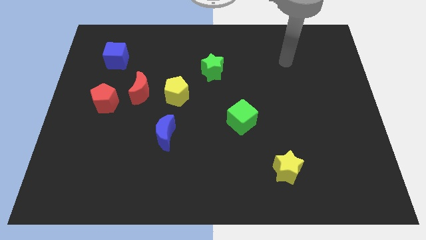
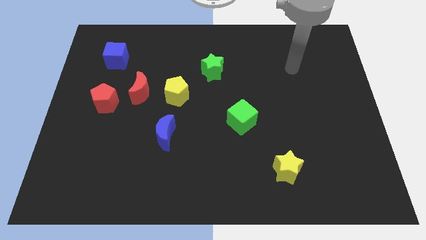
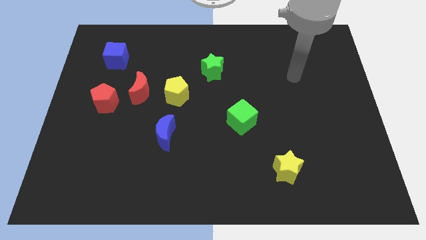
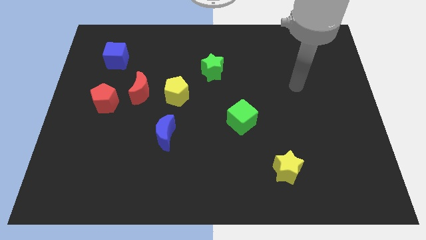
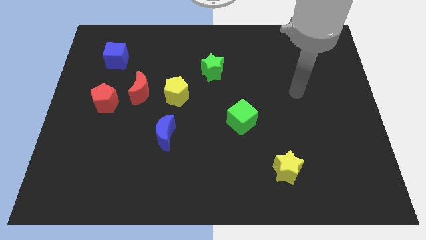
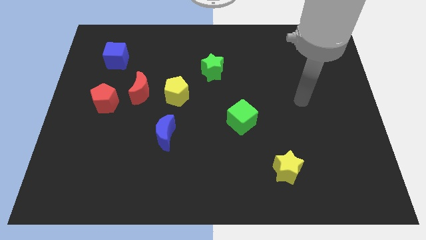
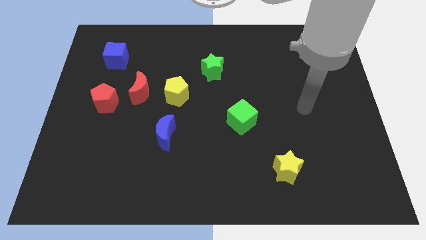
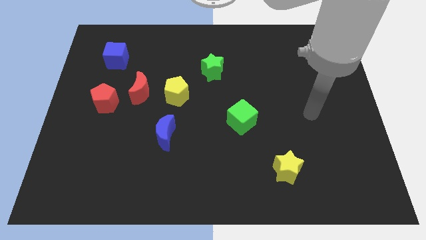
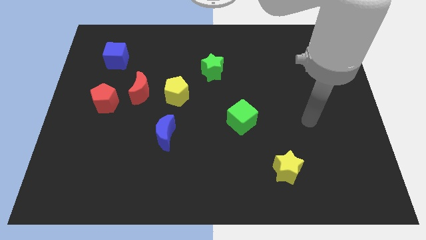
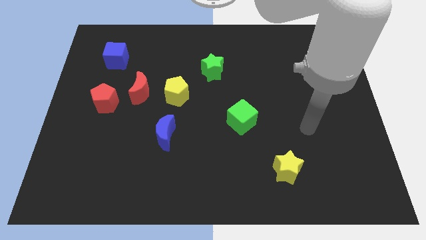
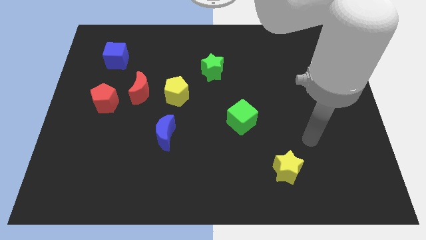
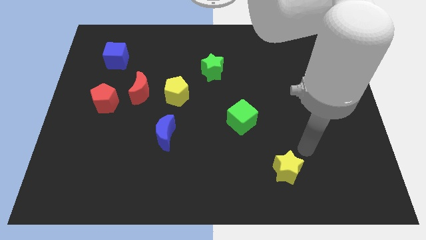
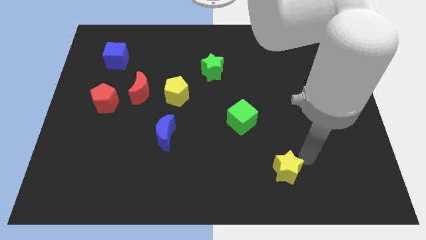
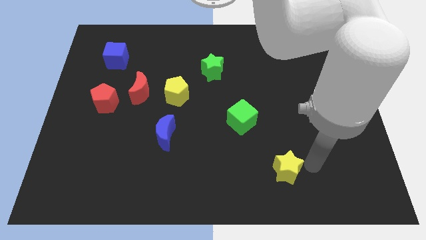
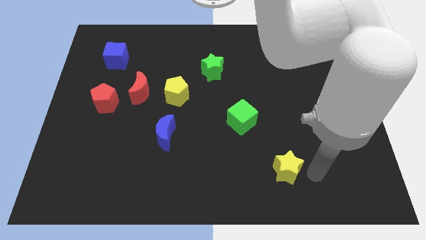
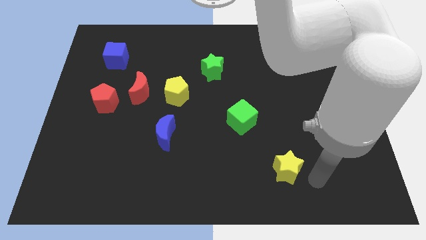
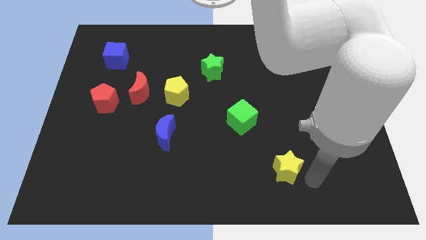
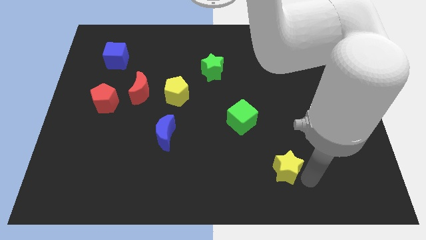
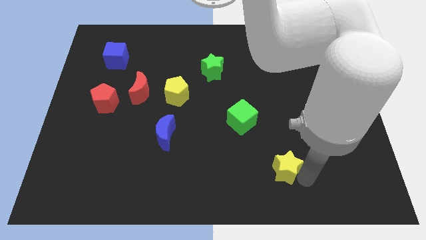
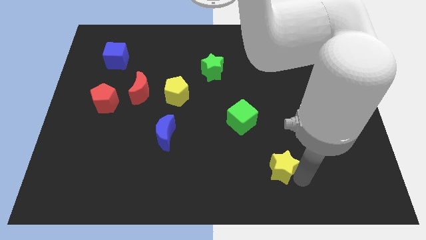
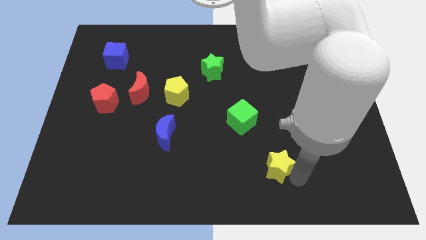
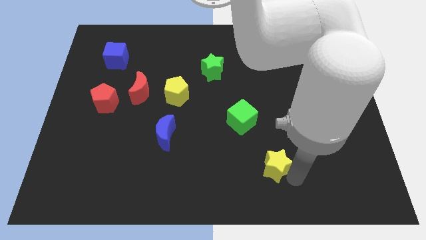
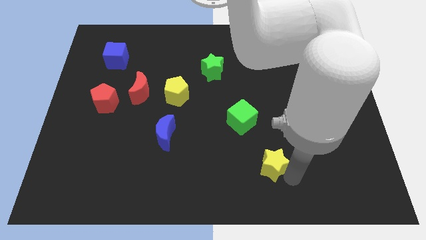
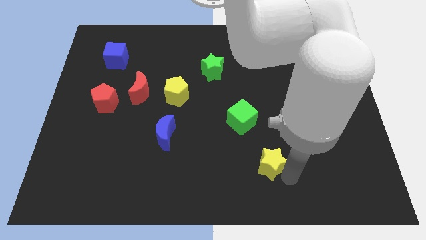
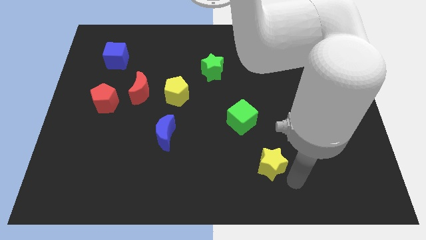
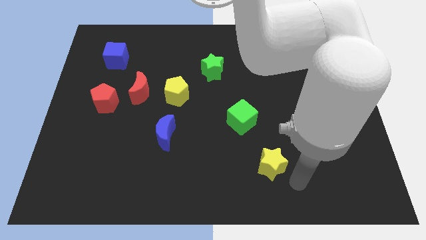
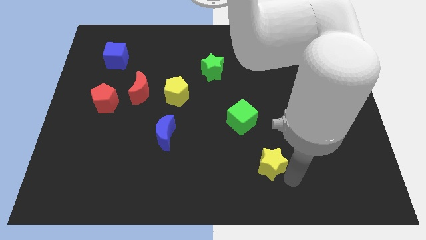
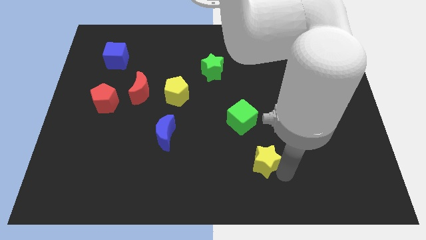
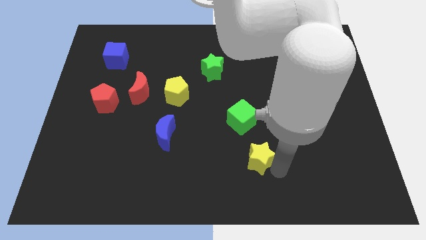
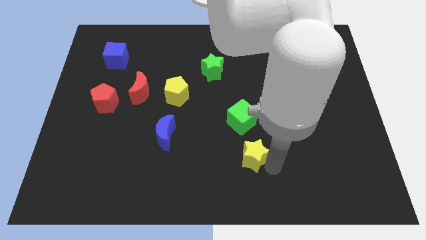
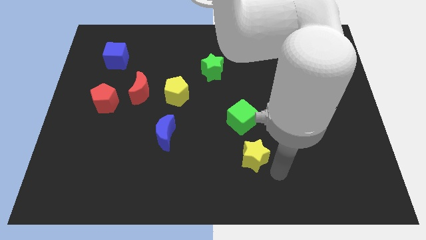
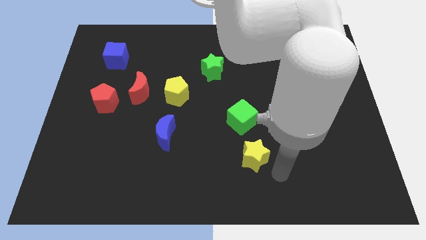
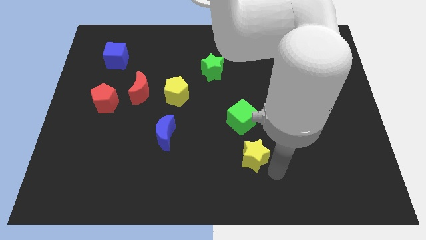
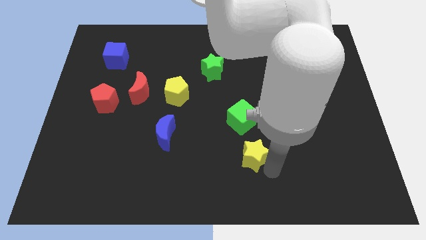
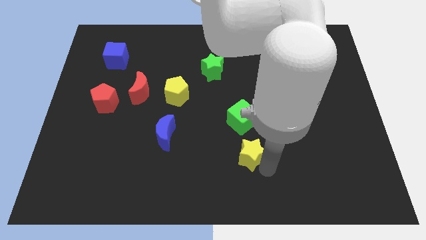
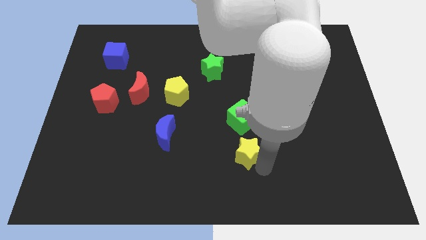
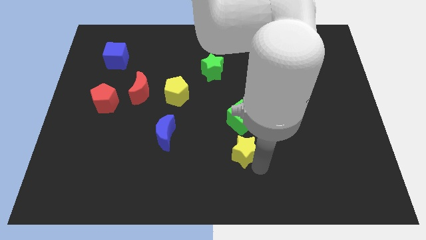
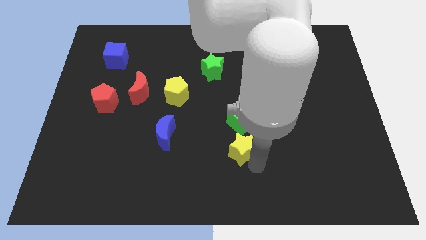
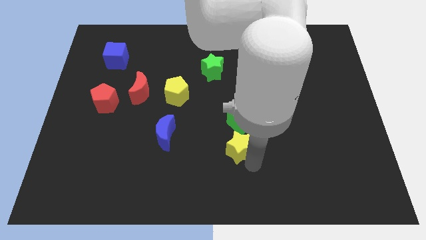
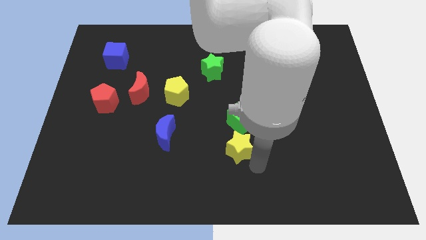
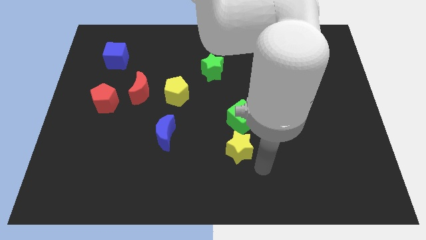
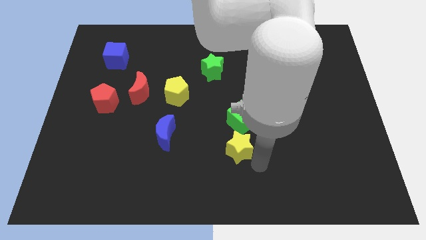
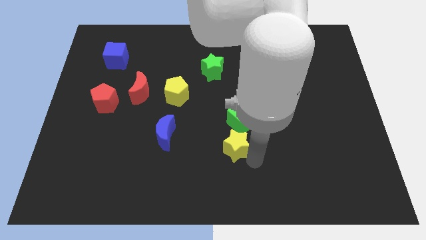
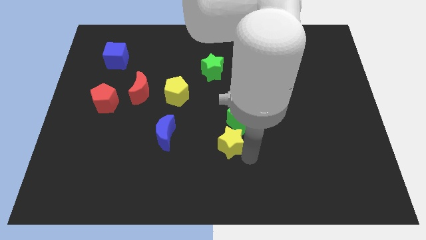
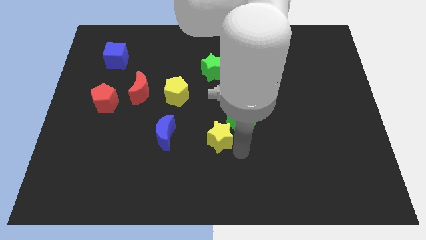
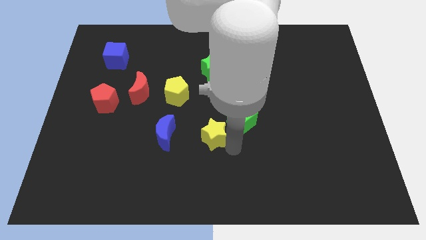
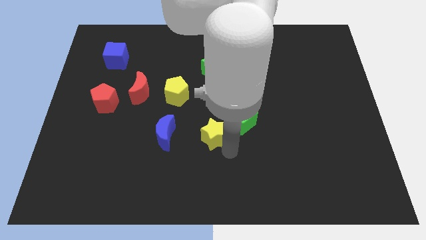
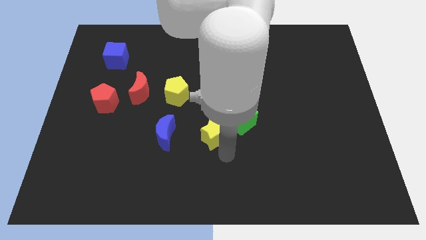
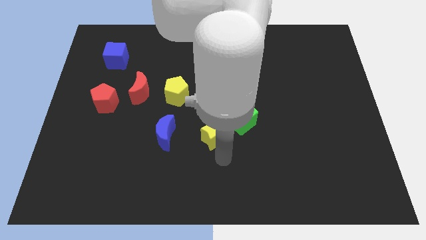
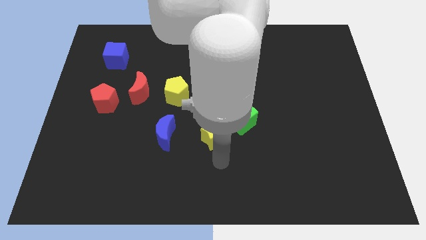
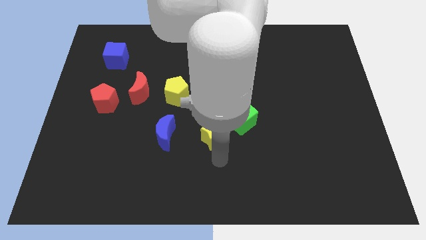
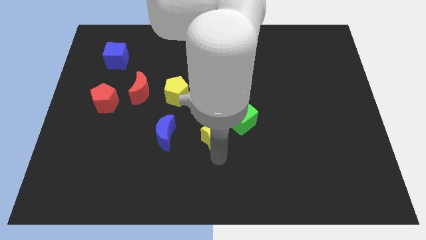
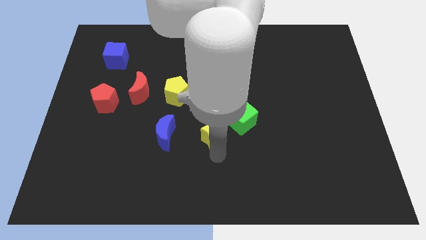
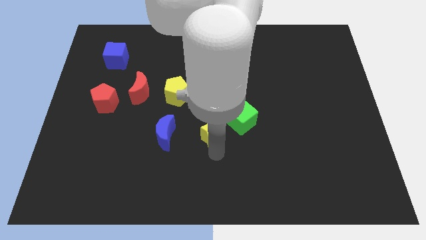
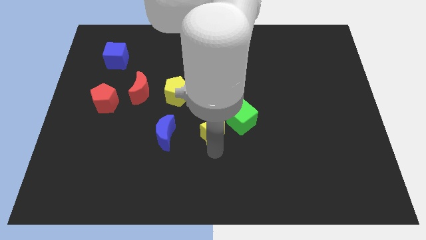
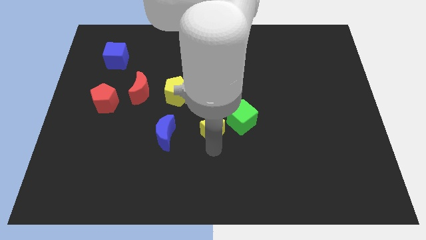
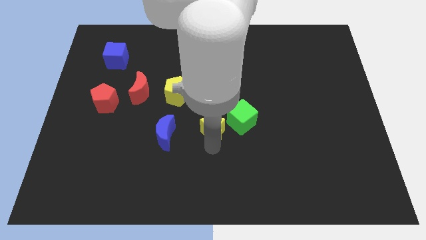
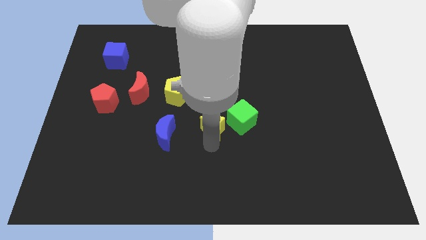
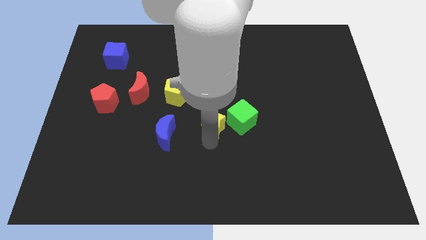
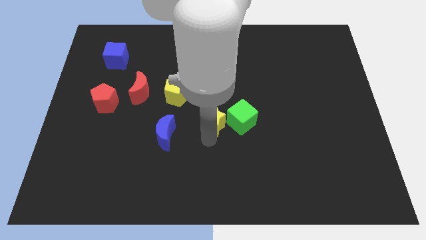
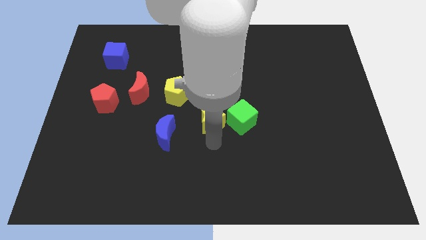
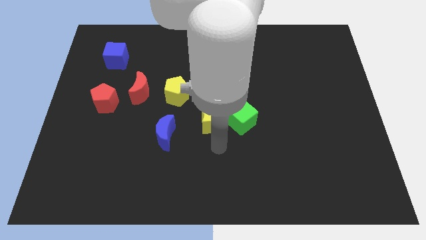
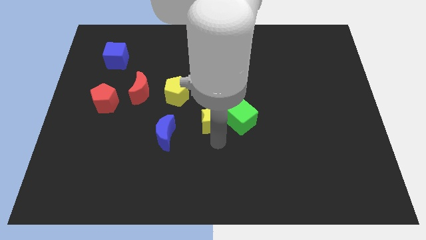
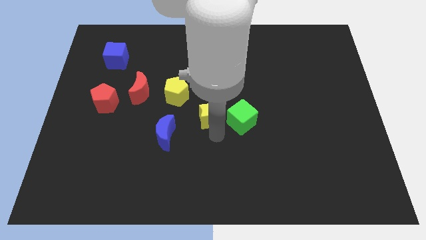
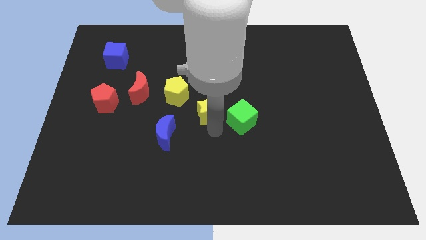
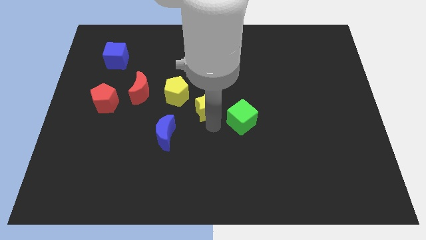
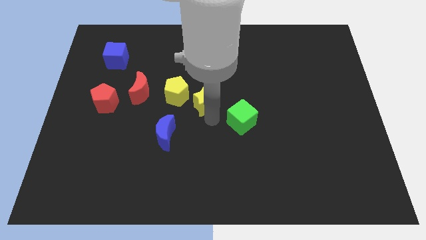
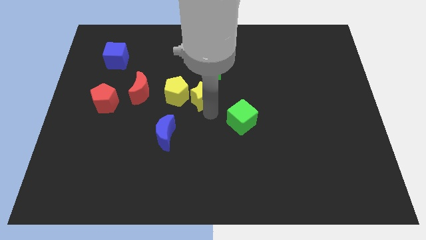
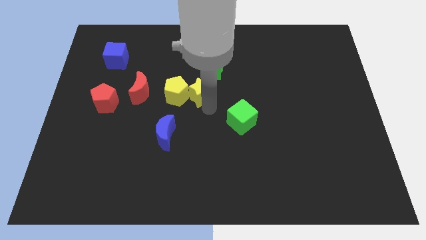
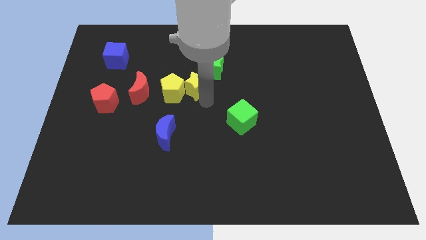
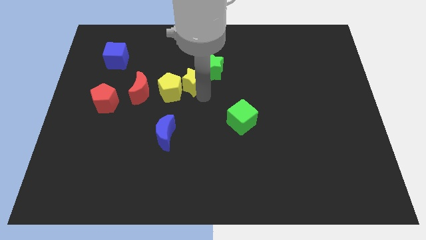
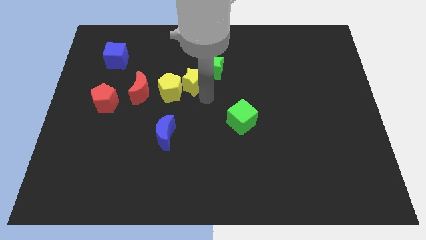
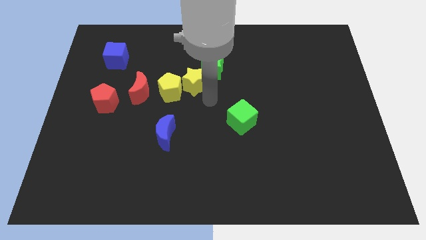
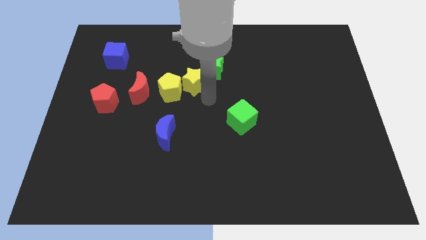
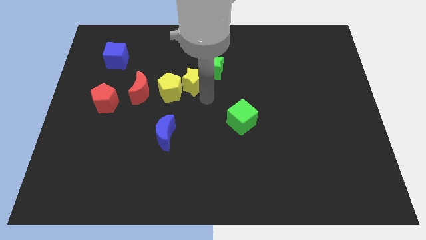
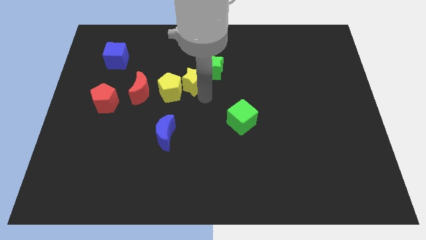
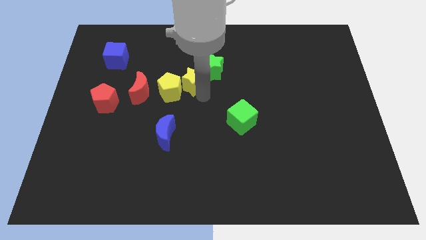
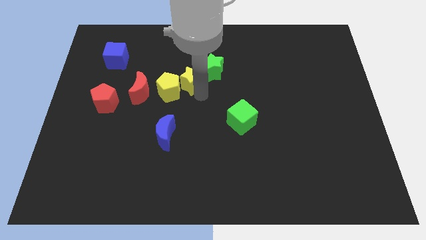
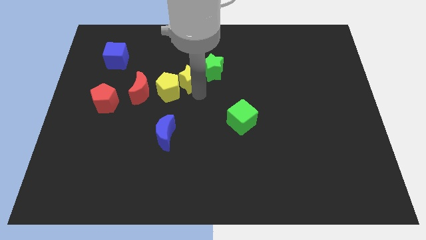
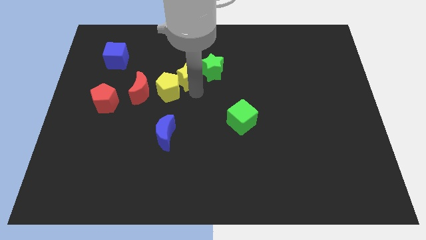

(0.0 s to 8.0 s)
push the yellow star to the top side of the yellow pentagon
